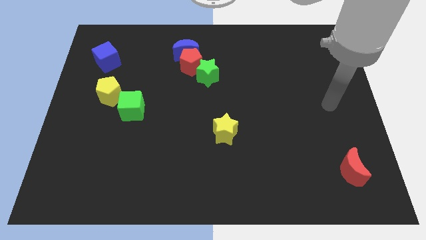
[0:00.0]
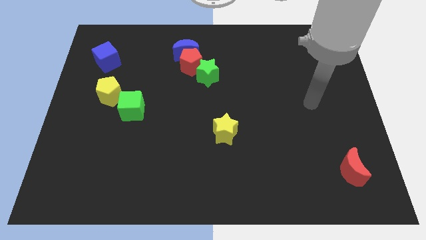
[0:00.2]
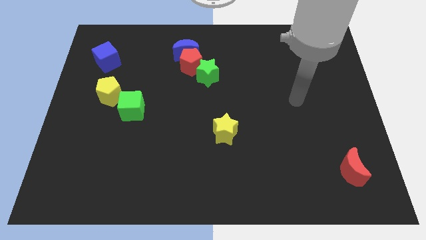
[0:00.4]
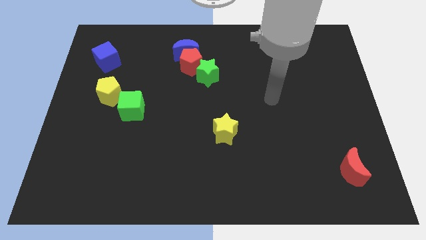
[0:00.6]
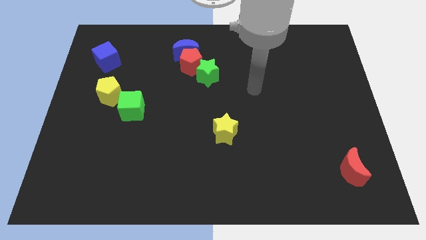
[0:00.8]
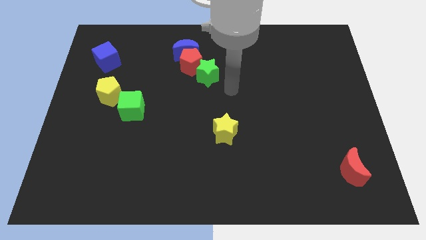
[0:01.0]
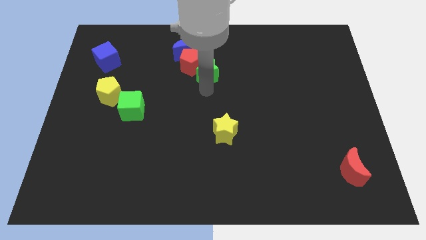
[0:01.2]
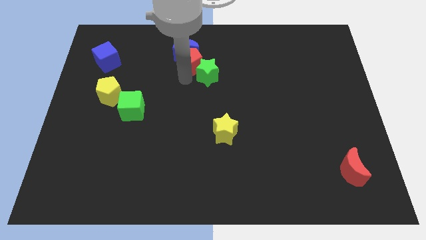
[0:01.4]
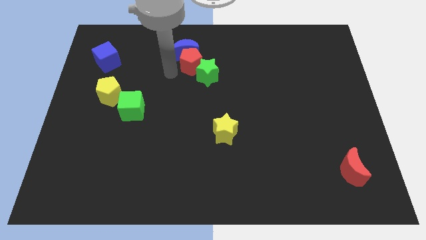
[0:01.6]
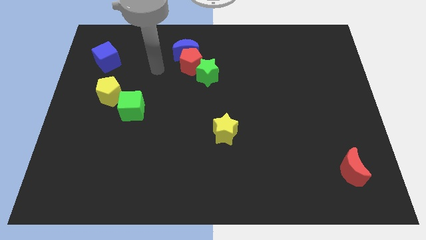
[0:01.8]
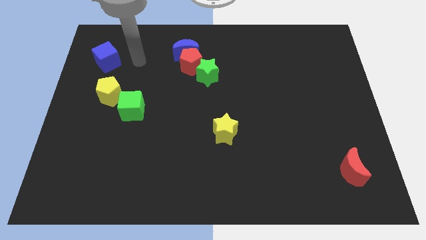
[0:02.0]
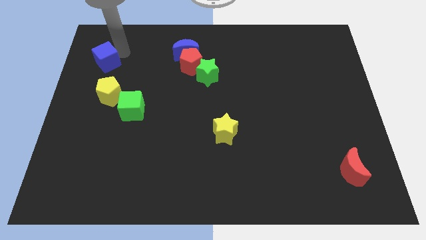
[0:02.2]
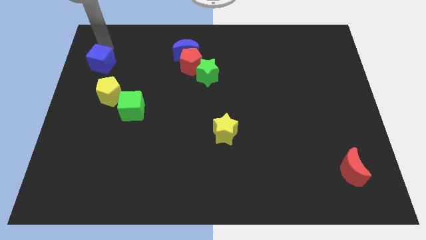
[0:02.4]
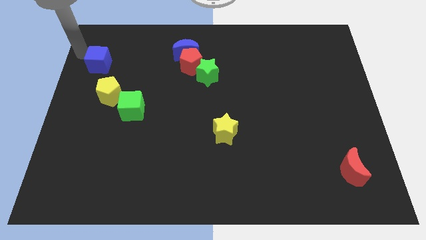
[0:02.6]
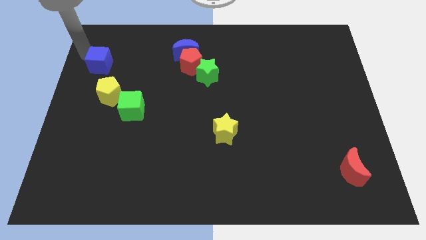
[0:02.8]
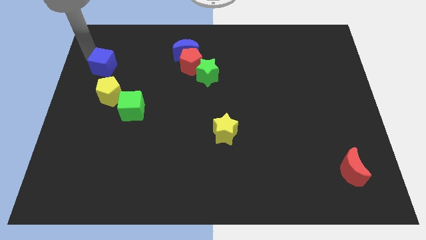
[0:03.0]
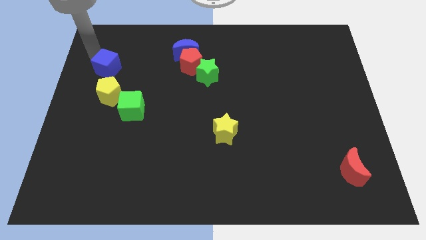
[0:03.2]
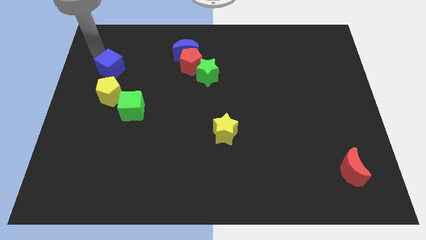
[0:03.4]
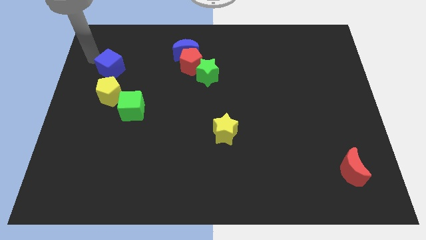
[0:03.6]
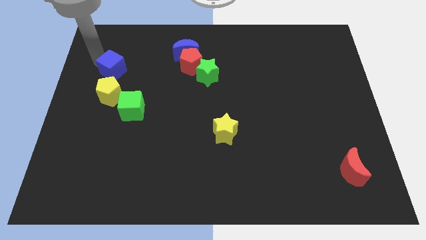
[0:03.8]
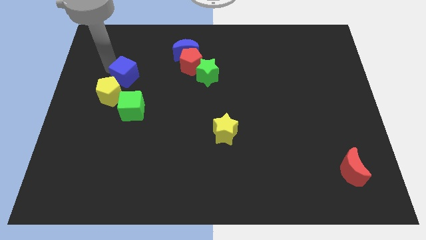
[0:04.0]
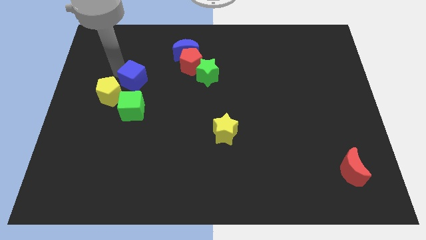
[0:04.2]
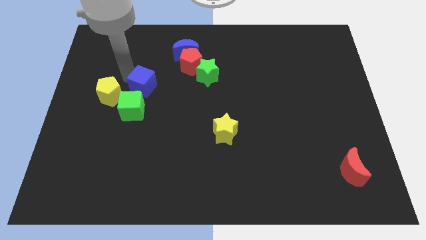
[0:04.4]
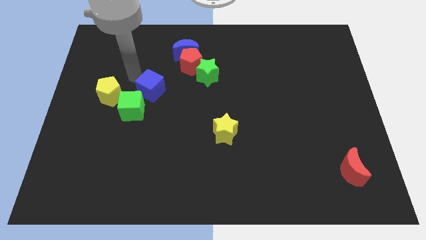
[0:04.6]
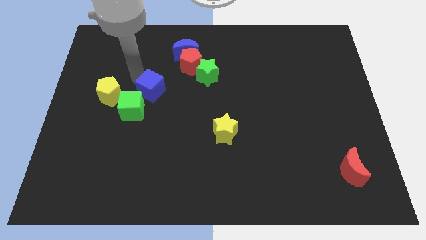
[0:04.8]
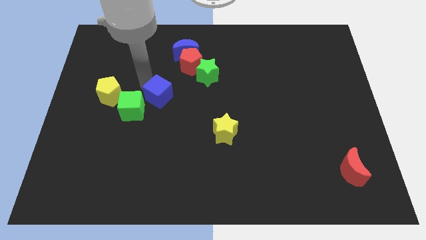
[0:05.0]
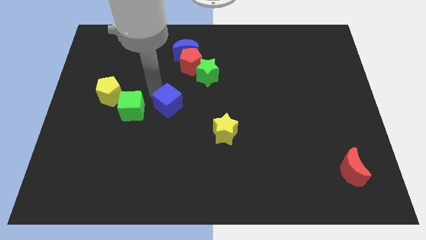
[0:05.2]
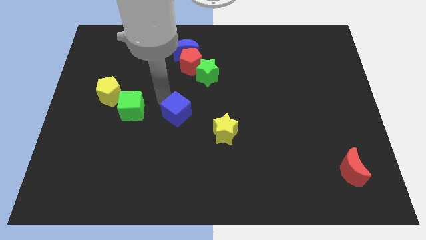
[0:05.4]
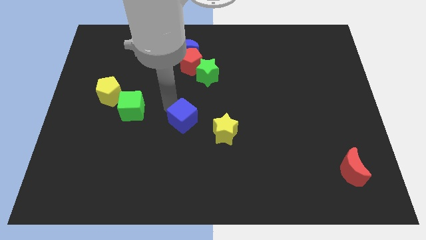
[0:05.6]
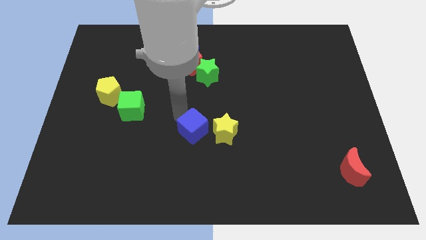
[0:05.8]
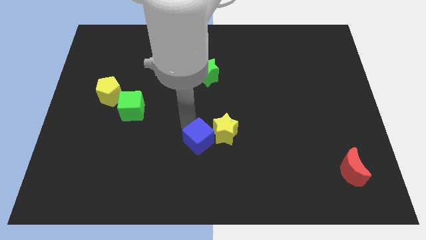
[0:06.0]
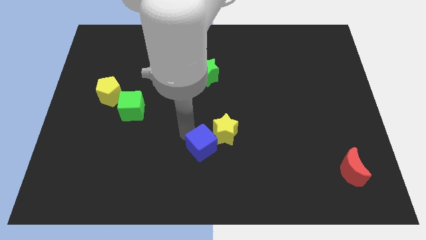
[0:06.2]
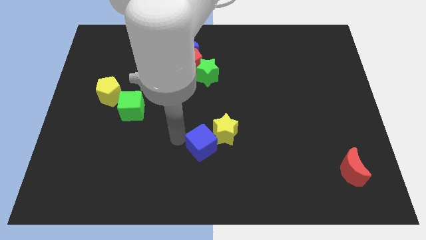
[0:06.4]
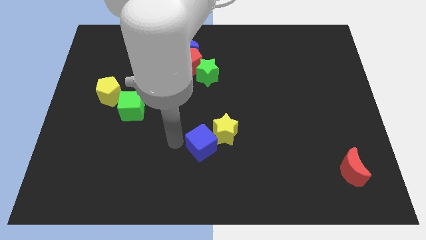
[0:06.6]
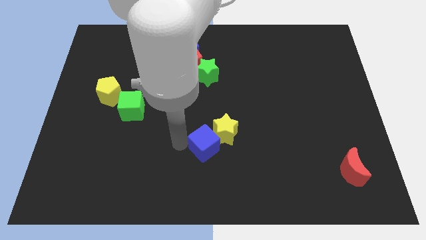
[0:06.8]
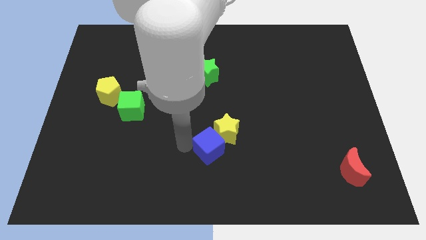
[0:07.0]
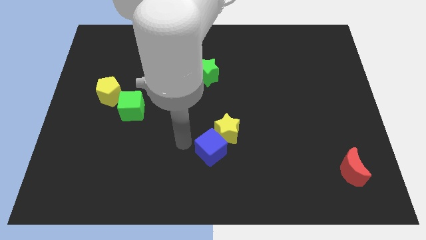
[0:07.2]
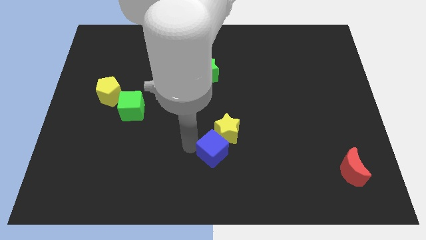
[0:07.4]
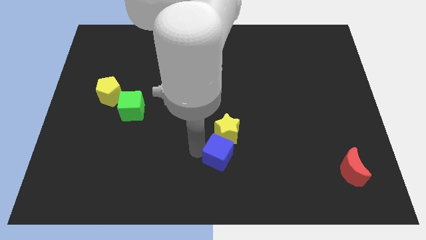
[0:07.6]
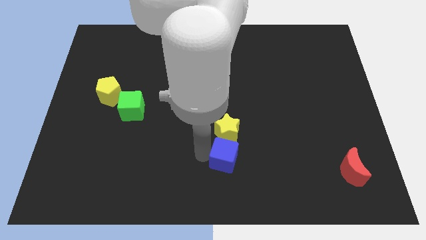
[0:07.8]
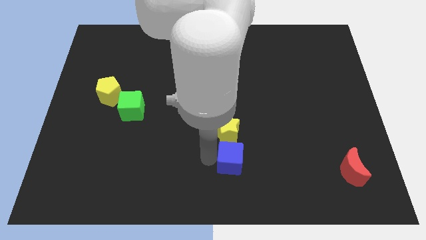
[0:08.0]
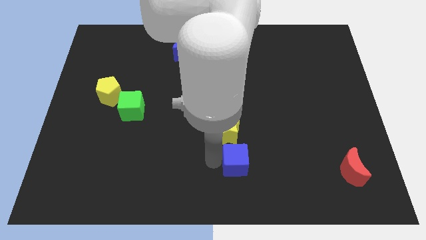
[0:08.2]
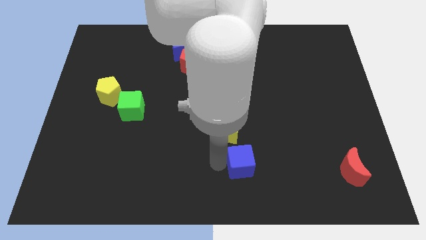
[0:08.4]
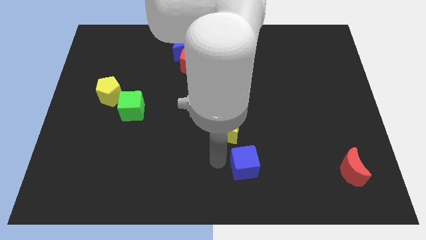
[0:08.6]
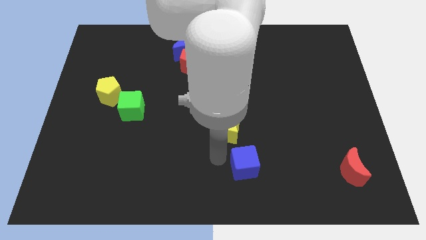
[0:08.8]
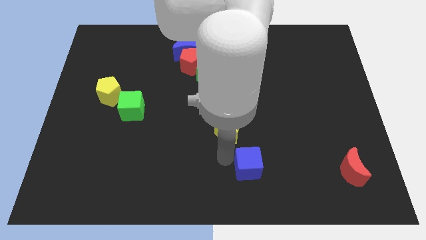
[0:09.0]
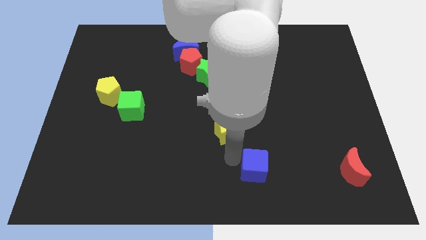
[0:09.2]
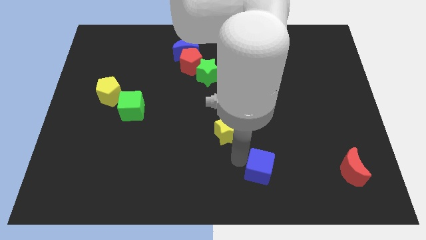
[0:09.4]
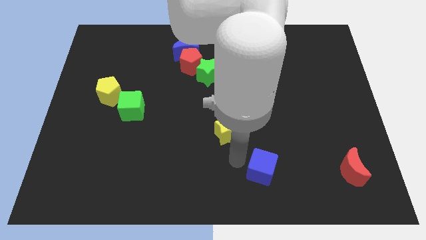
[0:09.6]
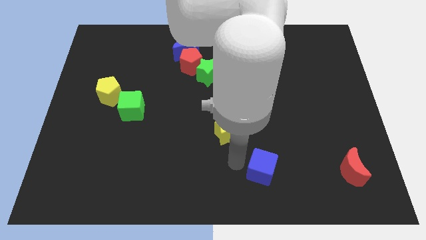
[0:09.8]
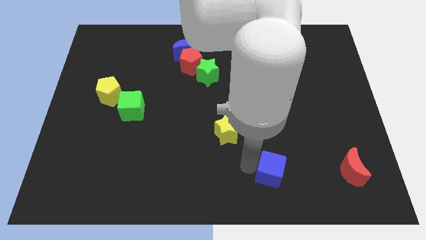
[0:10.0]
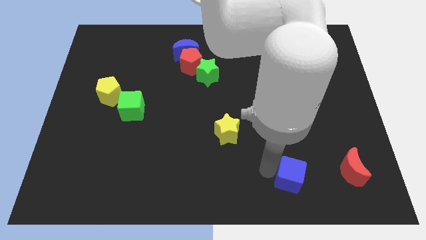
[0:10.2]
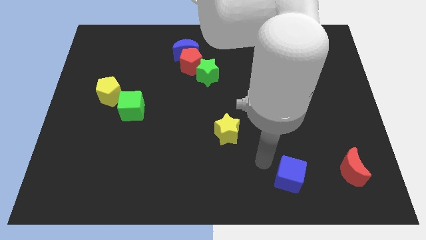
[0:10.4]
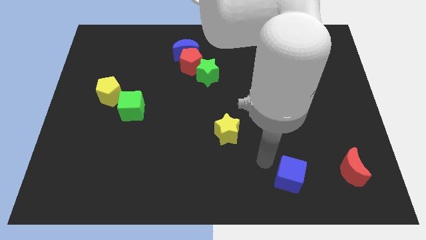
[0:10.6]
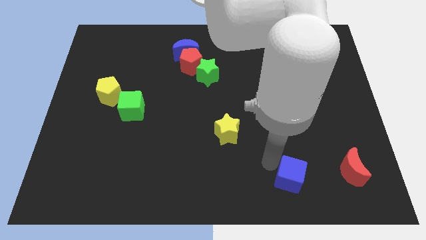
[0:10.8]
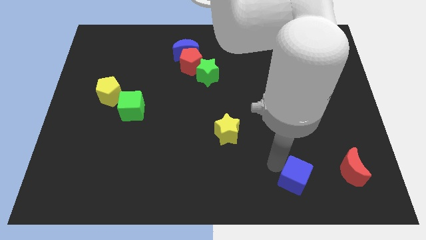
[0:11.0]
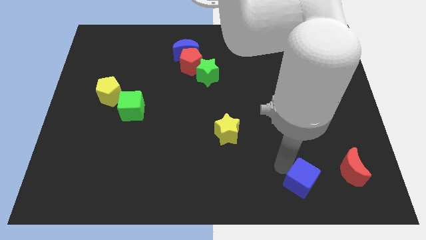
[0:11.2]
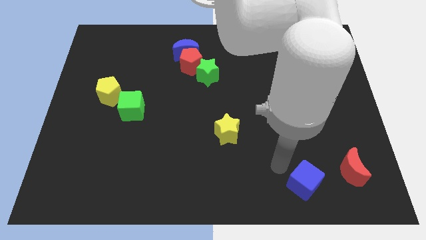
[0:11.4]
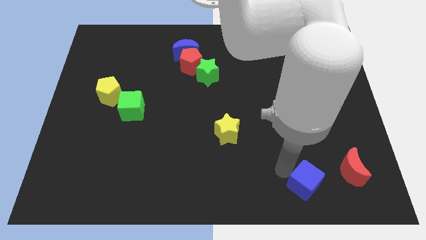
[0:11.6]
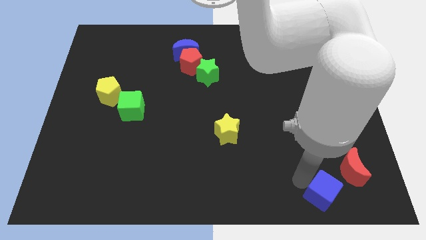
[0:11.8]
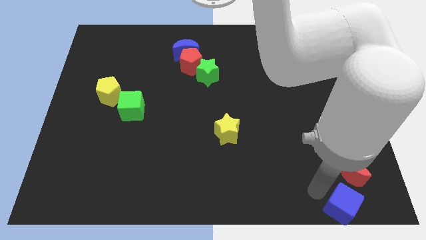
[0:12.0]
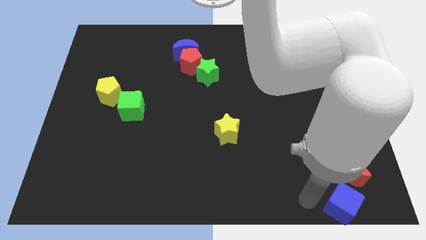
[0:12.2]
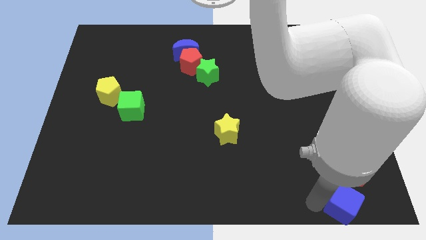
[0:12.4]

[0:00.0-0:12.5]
move the blue cube to the bottom right

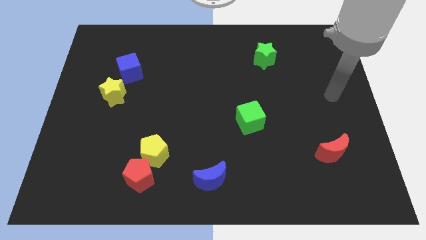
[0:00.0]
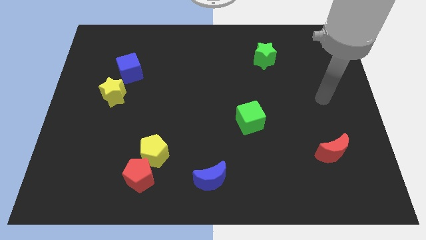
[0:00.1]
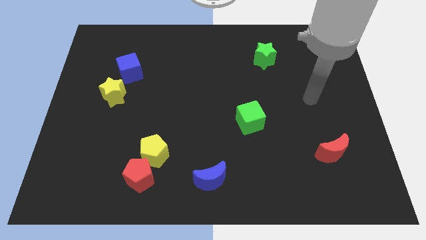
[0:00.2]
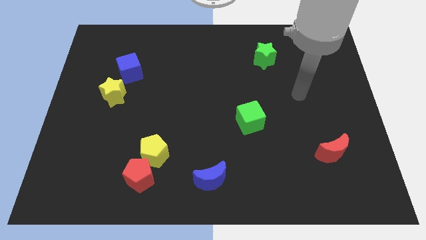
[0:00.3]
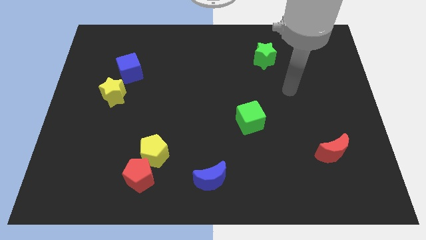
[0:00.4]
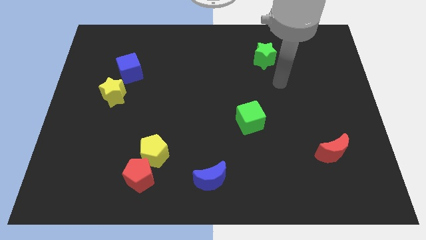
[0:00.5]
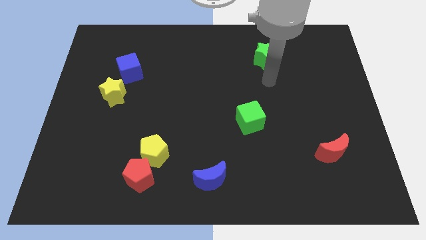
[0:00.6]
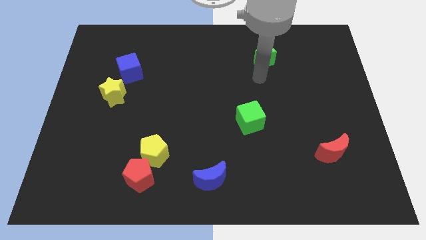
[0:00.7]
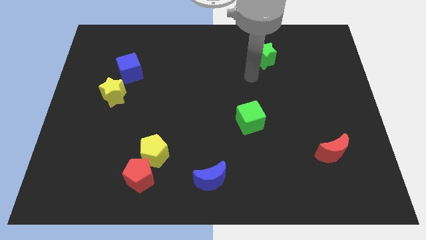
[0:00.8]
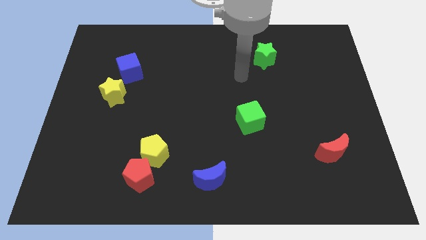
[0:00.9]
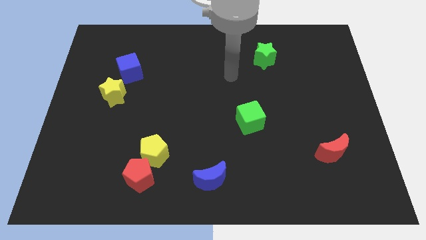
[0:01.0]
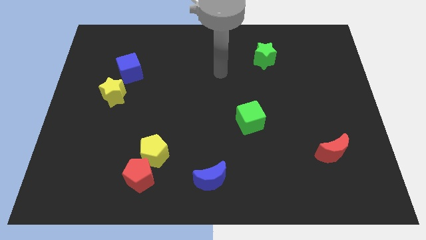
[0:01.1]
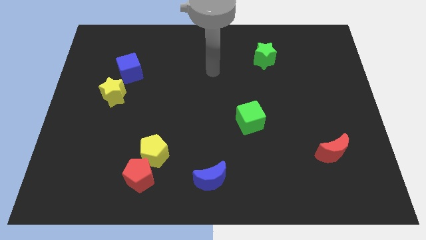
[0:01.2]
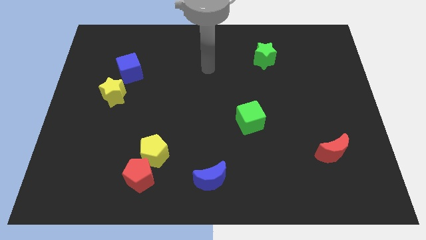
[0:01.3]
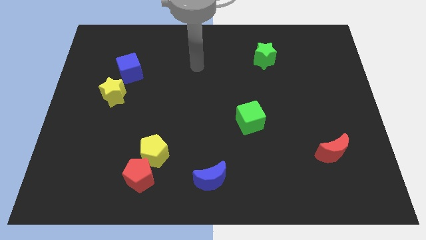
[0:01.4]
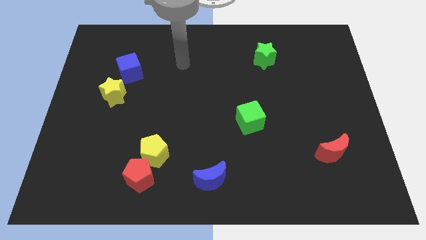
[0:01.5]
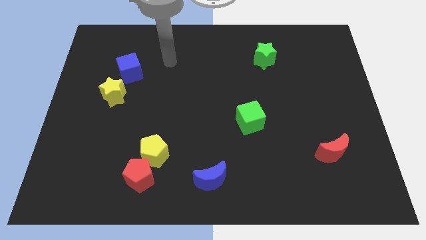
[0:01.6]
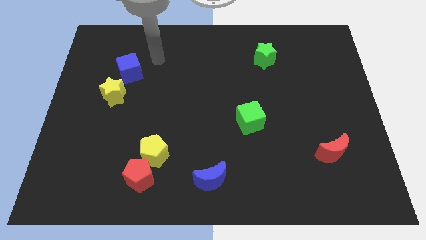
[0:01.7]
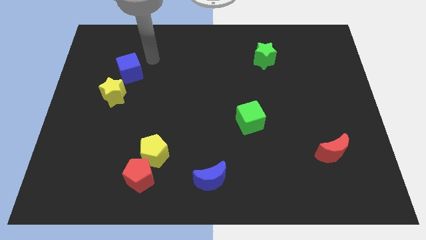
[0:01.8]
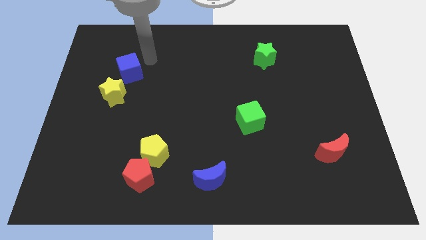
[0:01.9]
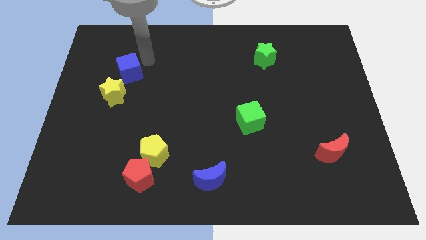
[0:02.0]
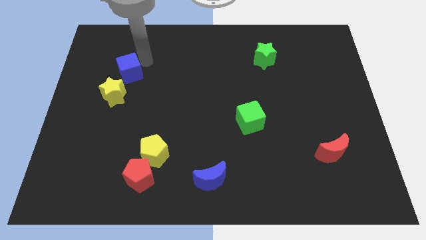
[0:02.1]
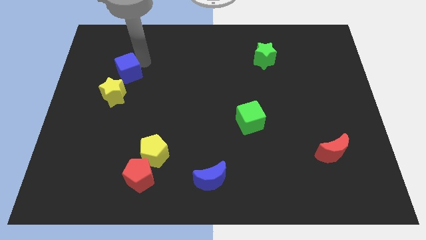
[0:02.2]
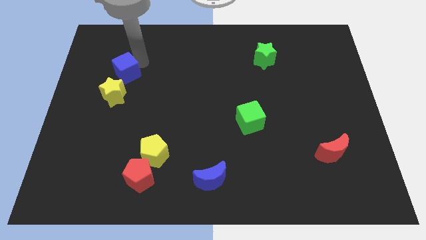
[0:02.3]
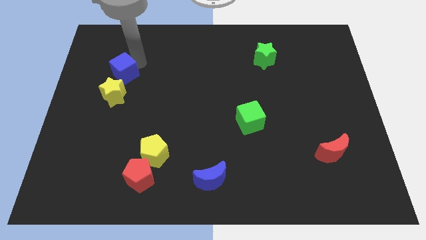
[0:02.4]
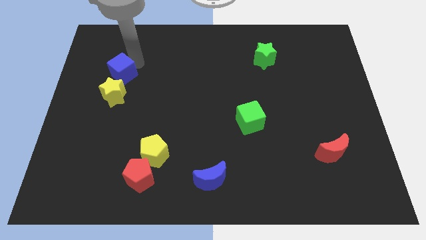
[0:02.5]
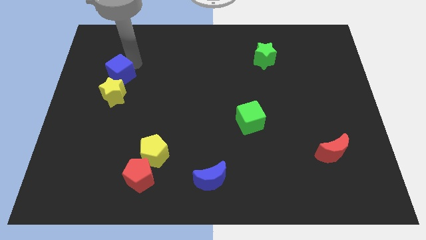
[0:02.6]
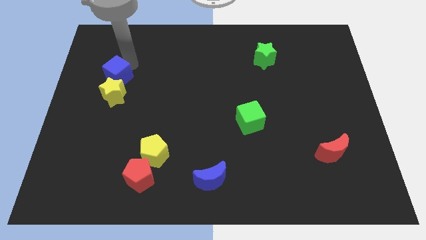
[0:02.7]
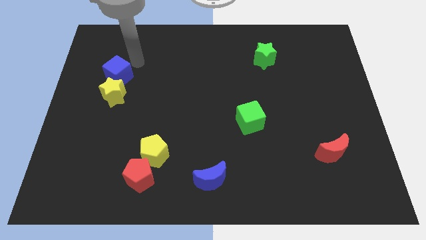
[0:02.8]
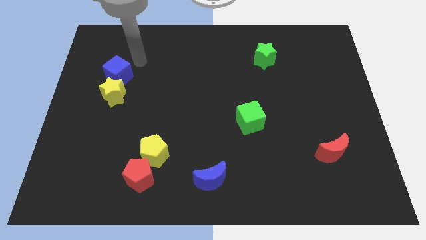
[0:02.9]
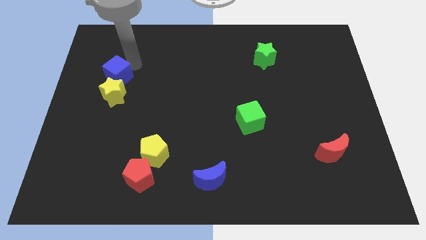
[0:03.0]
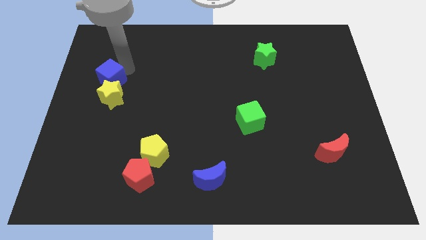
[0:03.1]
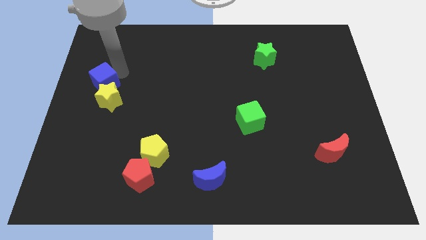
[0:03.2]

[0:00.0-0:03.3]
push the blue cube to the center left
